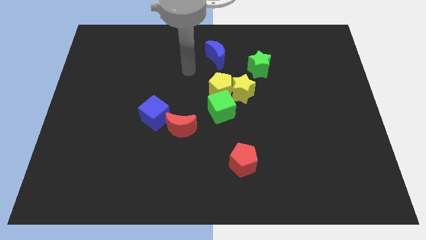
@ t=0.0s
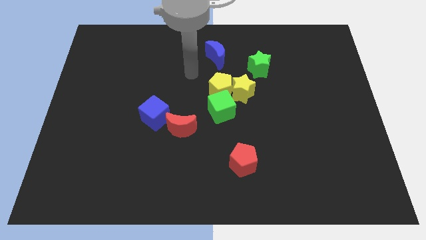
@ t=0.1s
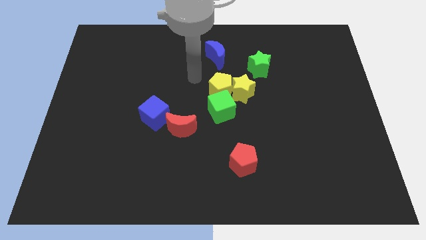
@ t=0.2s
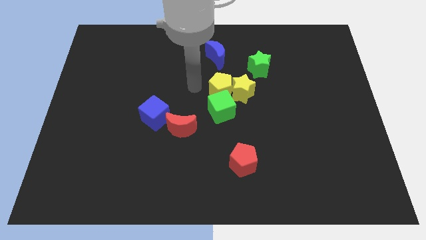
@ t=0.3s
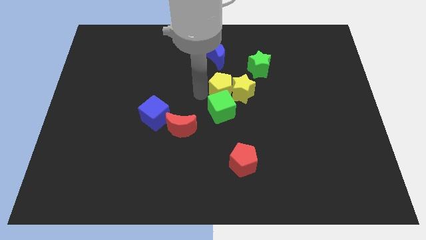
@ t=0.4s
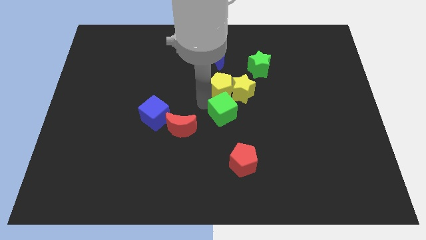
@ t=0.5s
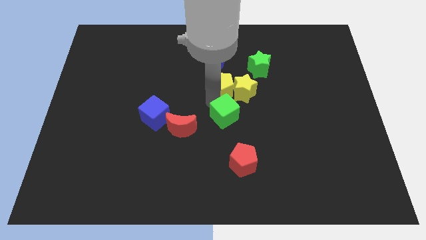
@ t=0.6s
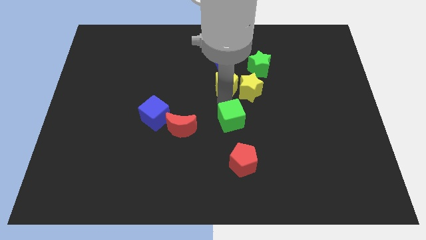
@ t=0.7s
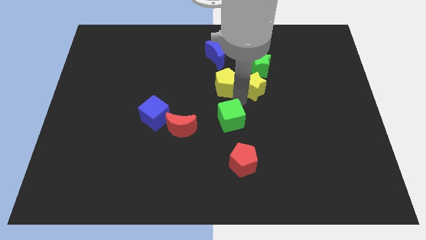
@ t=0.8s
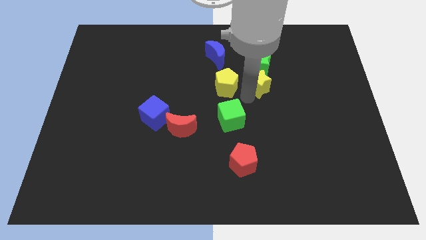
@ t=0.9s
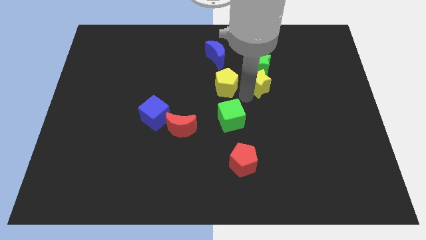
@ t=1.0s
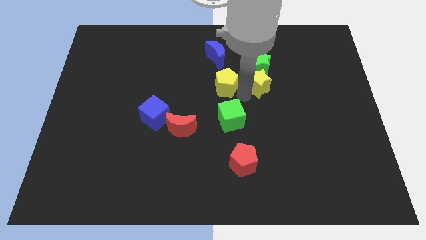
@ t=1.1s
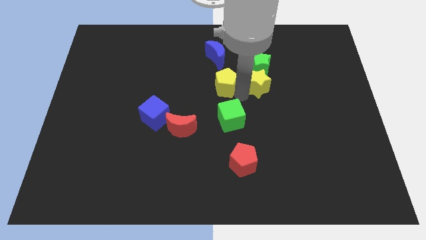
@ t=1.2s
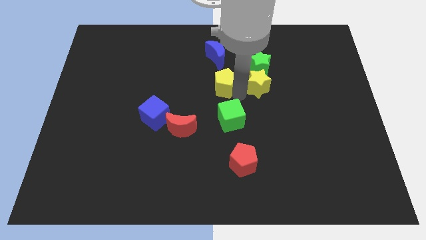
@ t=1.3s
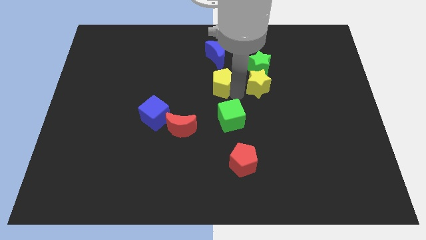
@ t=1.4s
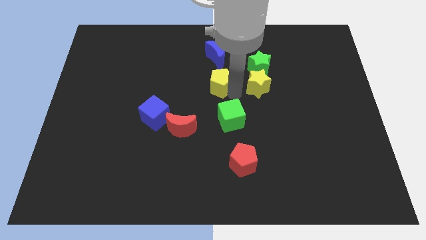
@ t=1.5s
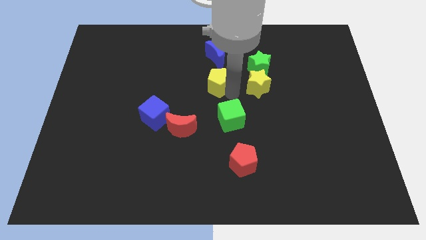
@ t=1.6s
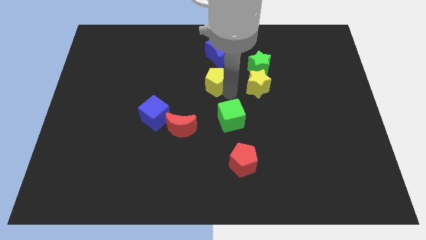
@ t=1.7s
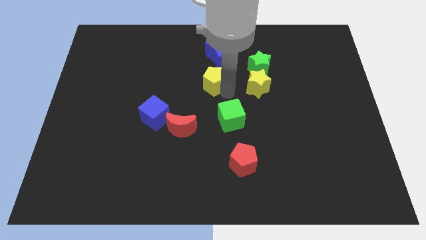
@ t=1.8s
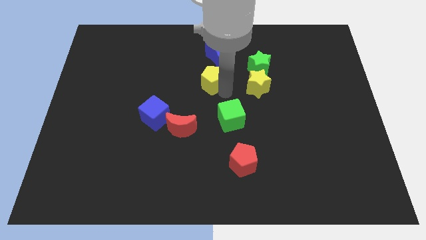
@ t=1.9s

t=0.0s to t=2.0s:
pull the yellow pentagon apart from the yellow star and green cube

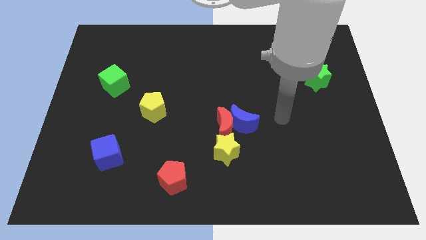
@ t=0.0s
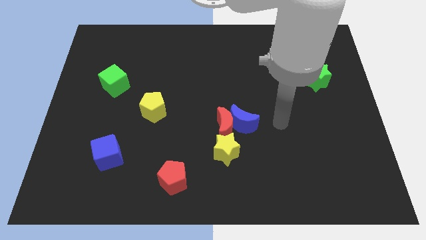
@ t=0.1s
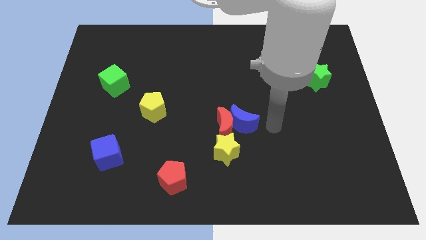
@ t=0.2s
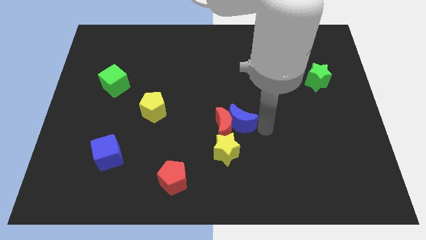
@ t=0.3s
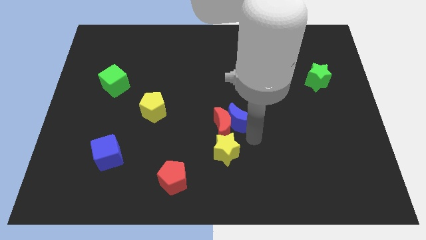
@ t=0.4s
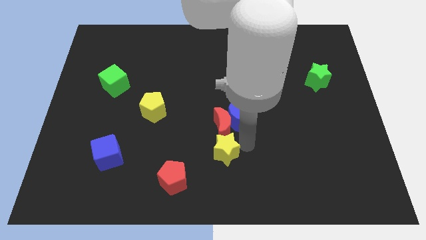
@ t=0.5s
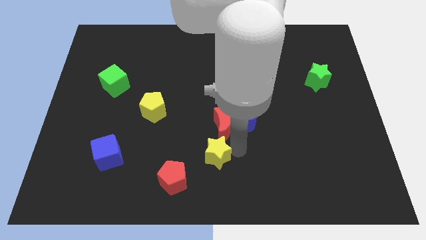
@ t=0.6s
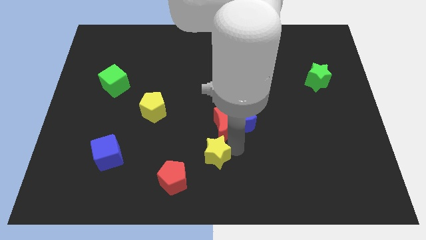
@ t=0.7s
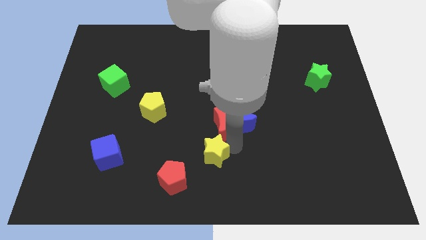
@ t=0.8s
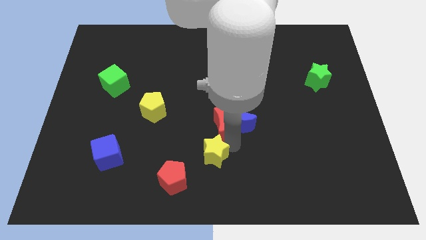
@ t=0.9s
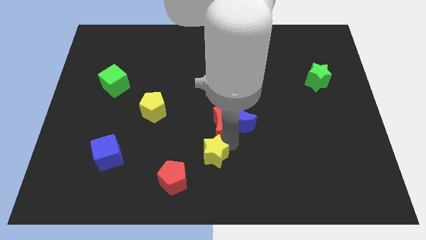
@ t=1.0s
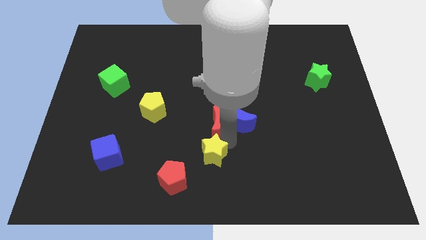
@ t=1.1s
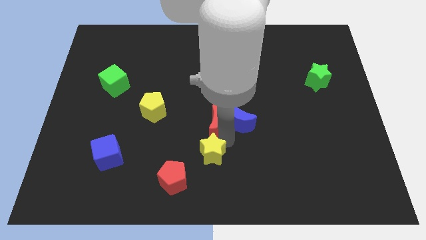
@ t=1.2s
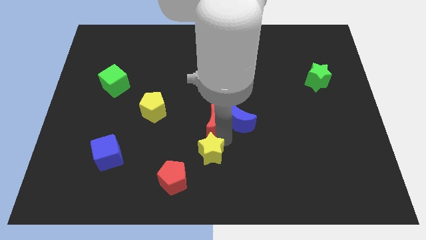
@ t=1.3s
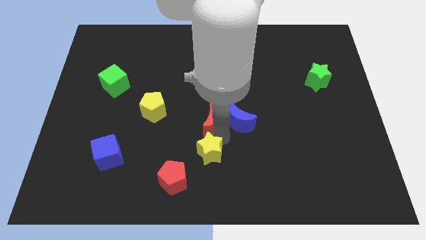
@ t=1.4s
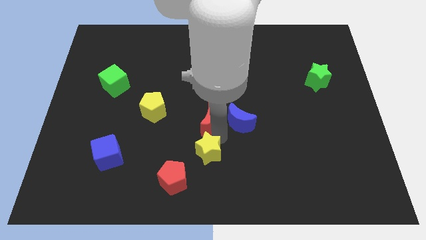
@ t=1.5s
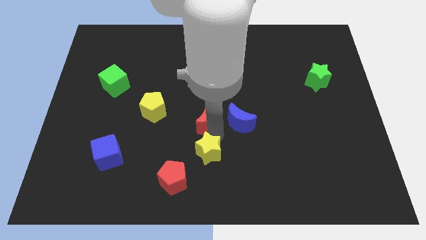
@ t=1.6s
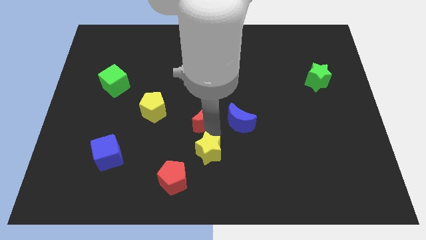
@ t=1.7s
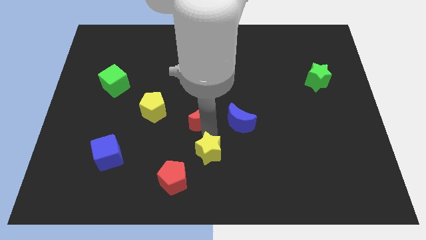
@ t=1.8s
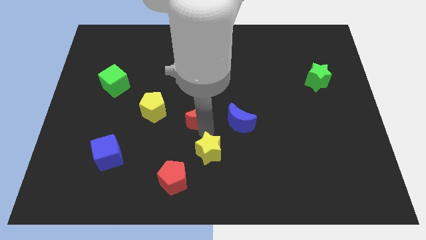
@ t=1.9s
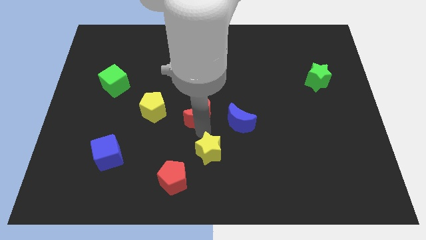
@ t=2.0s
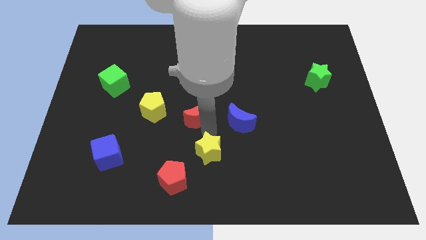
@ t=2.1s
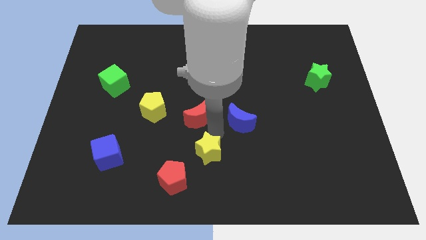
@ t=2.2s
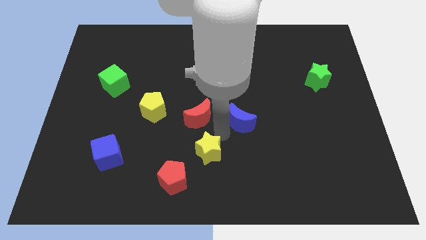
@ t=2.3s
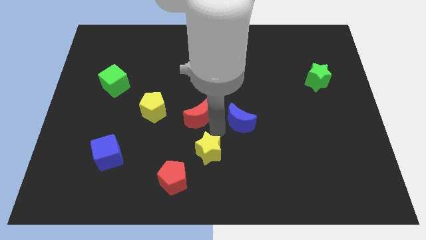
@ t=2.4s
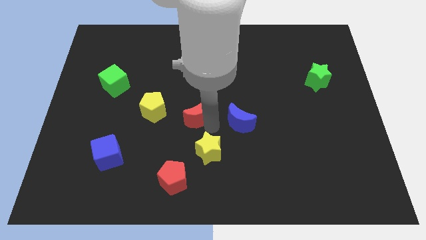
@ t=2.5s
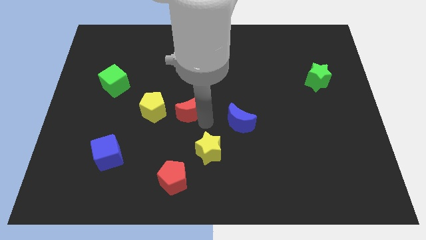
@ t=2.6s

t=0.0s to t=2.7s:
pull the red moon apart from the blue moon and yellow star

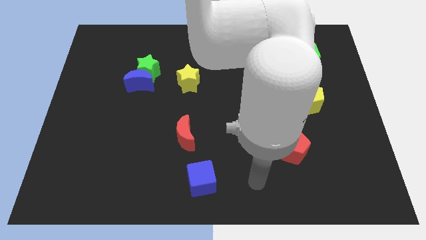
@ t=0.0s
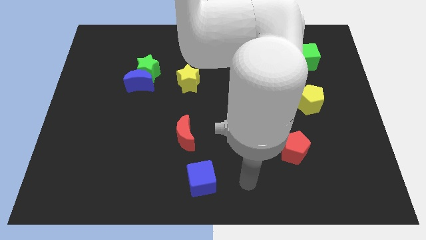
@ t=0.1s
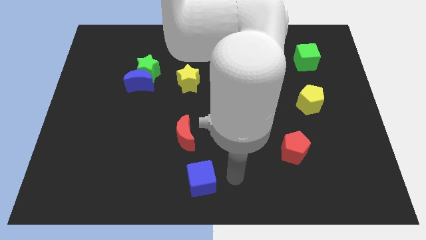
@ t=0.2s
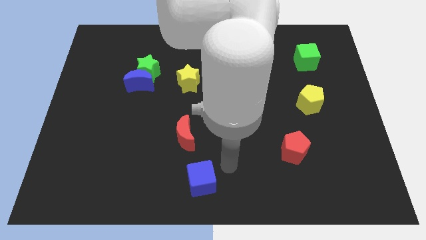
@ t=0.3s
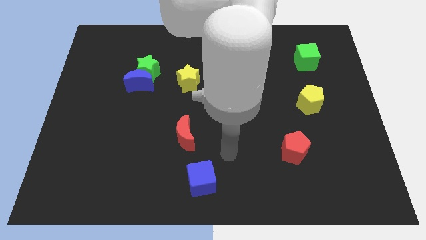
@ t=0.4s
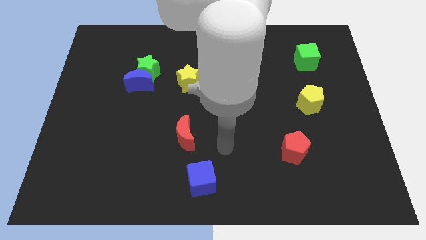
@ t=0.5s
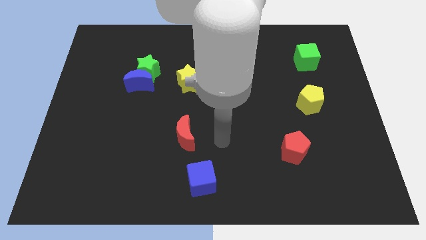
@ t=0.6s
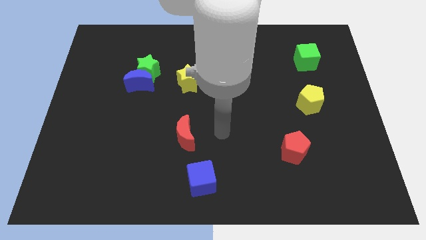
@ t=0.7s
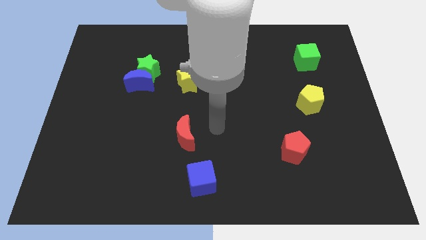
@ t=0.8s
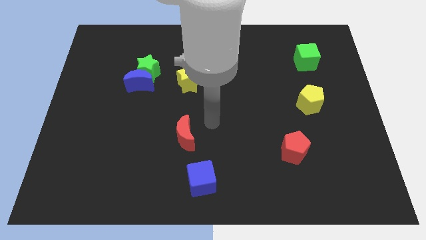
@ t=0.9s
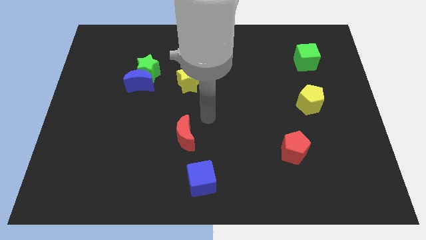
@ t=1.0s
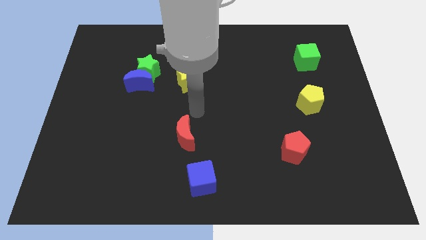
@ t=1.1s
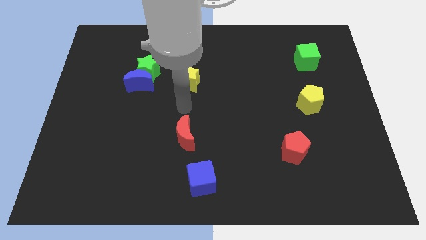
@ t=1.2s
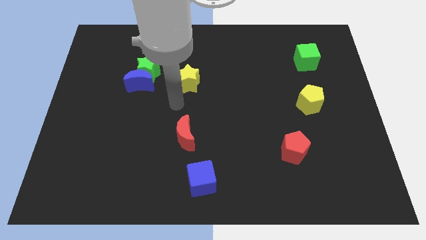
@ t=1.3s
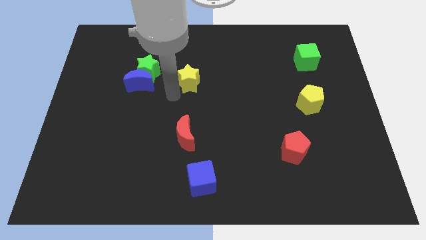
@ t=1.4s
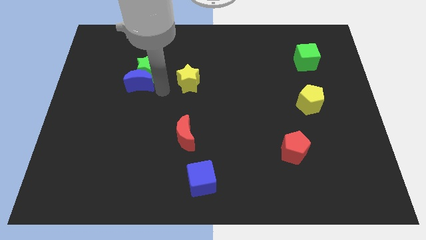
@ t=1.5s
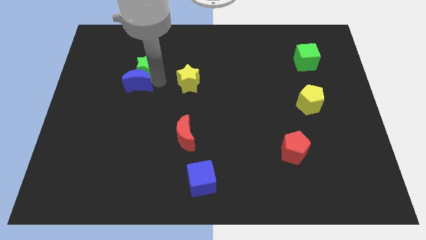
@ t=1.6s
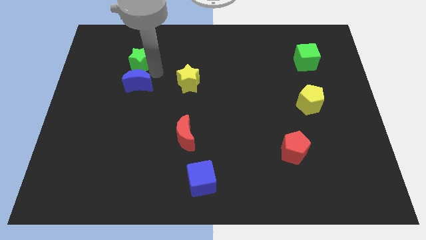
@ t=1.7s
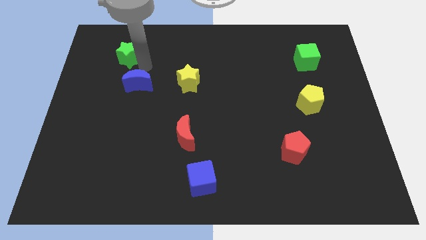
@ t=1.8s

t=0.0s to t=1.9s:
pull the blue moon apart from the green star

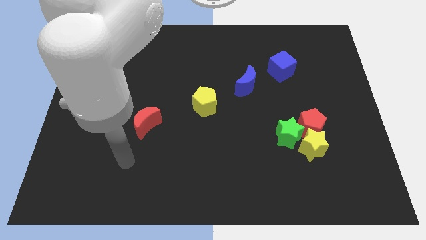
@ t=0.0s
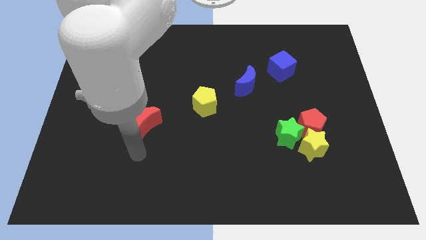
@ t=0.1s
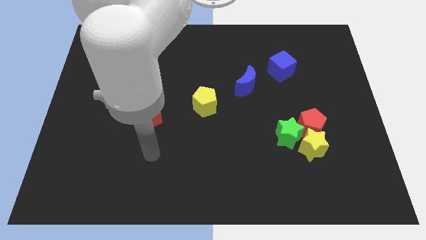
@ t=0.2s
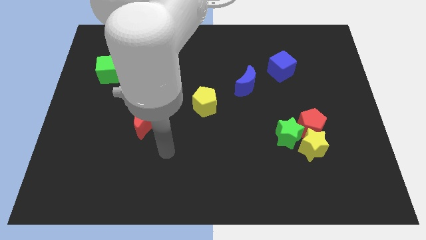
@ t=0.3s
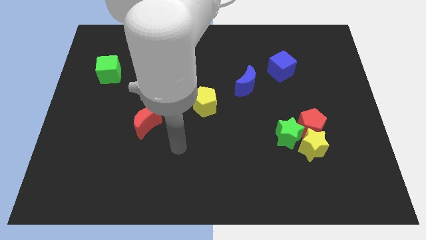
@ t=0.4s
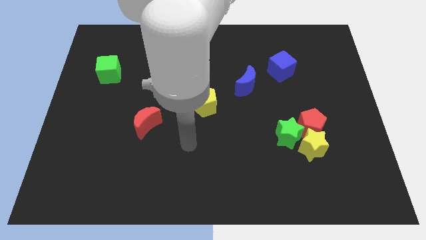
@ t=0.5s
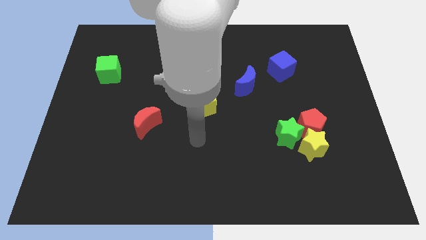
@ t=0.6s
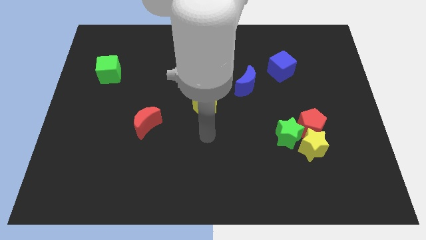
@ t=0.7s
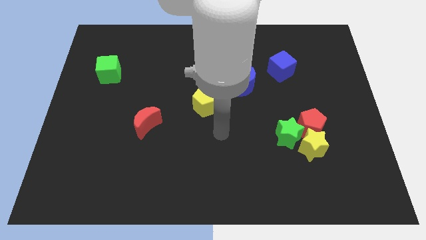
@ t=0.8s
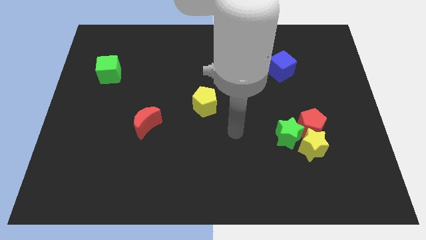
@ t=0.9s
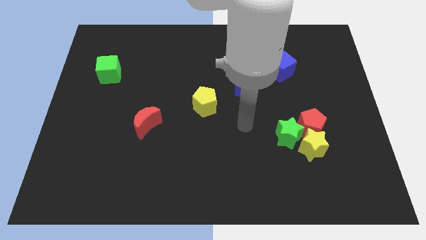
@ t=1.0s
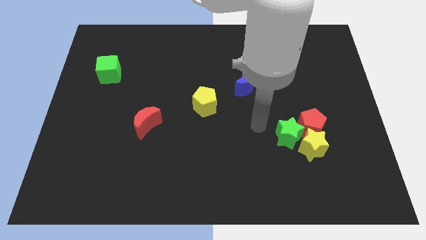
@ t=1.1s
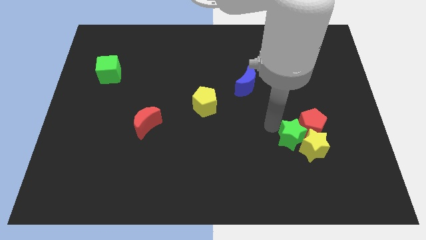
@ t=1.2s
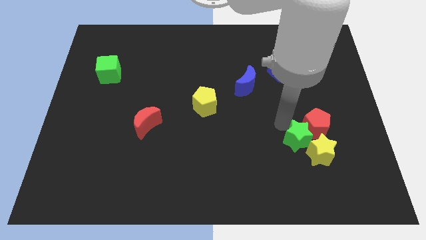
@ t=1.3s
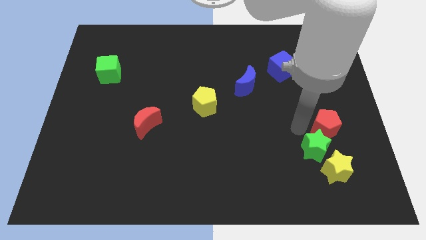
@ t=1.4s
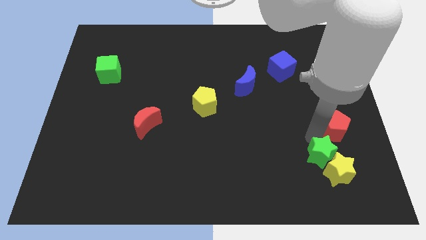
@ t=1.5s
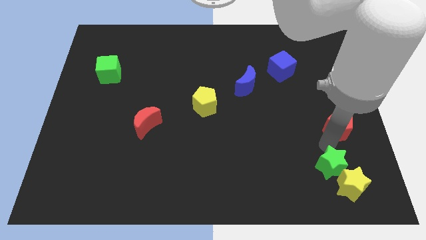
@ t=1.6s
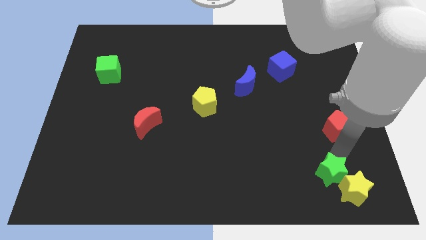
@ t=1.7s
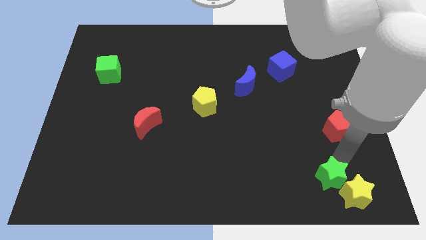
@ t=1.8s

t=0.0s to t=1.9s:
move the yellow star away from the red pentagon and green star

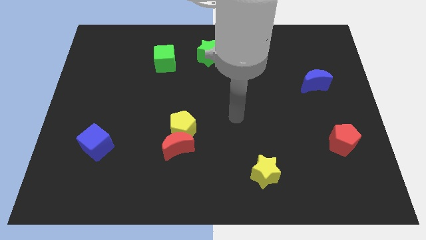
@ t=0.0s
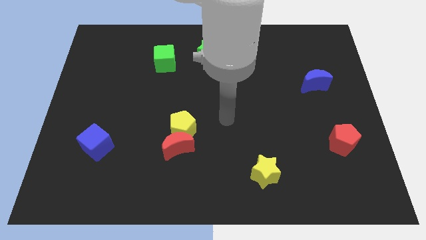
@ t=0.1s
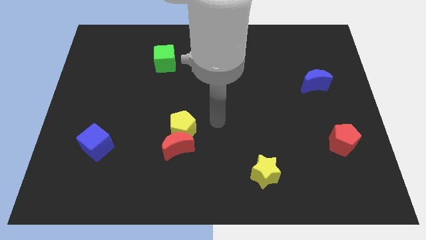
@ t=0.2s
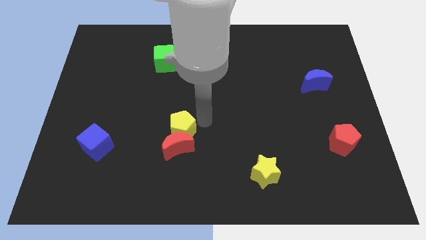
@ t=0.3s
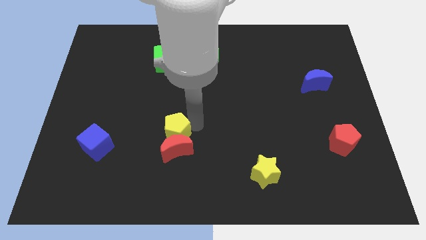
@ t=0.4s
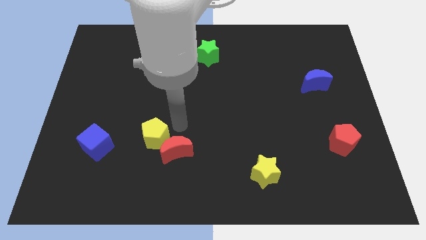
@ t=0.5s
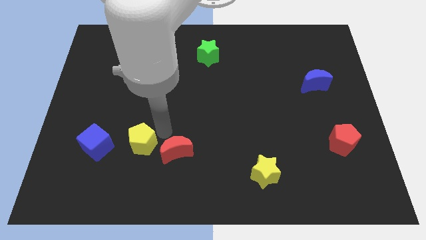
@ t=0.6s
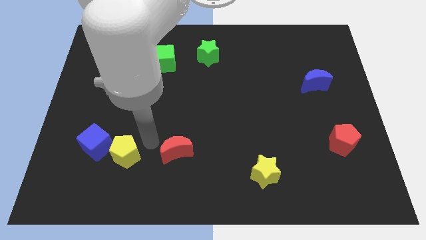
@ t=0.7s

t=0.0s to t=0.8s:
move the red moon away from the yellow pentagon

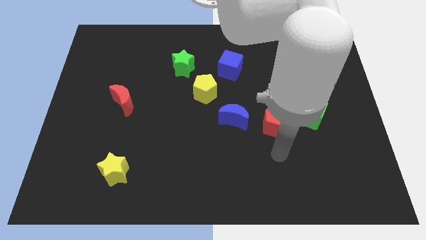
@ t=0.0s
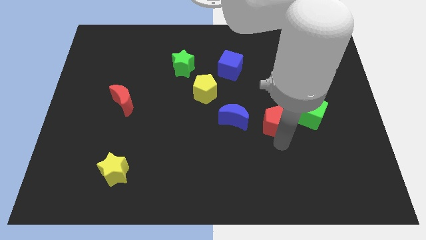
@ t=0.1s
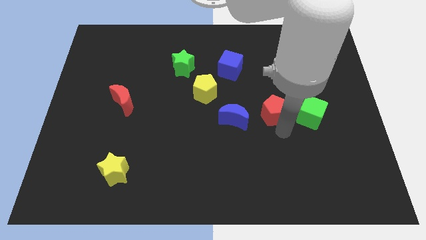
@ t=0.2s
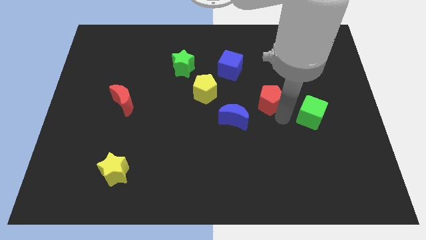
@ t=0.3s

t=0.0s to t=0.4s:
pull the green cube apart from the red pentagon
